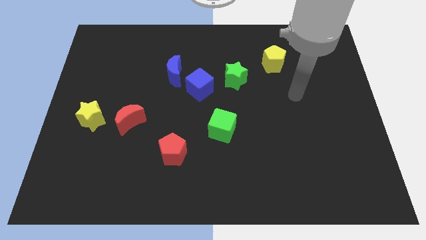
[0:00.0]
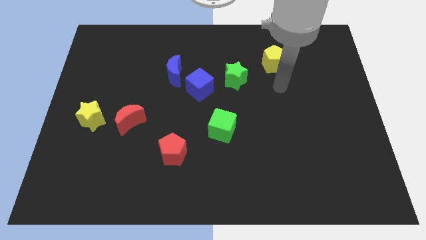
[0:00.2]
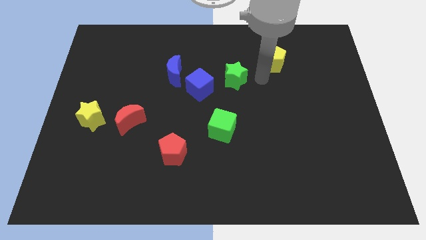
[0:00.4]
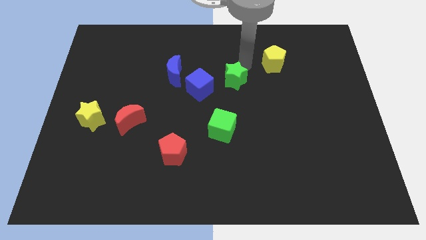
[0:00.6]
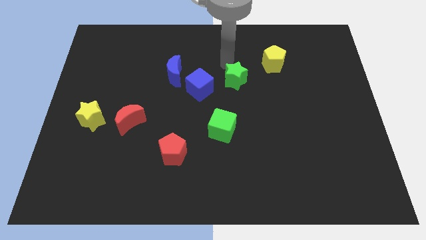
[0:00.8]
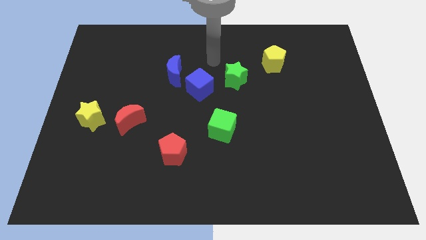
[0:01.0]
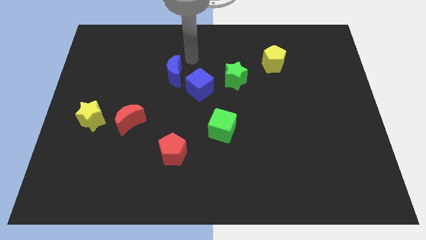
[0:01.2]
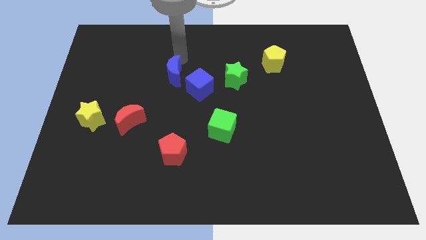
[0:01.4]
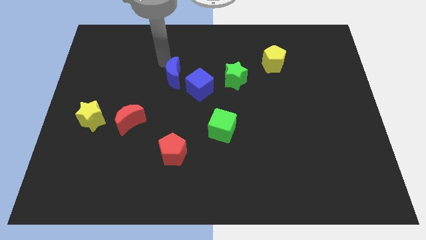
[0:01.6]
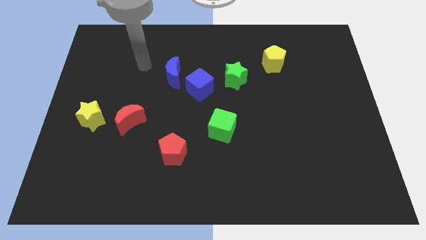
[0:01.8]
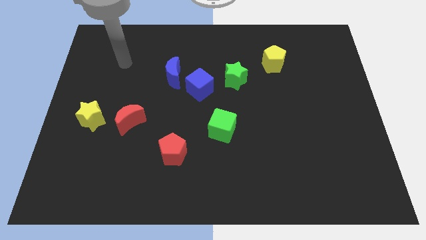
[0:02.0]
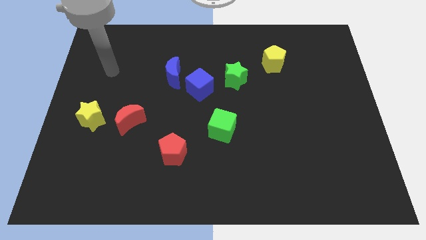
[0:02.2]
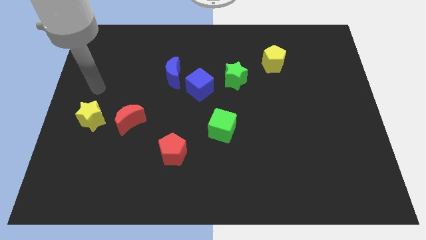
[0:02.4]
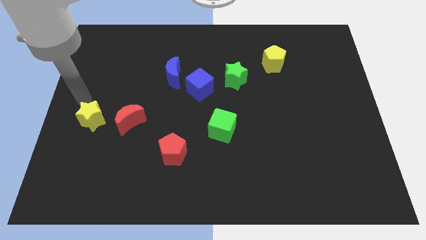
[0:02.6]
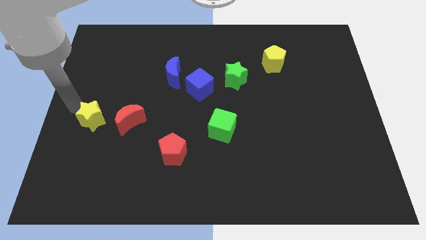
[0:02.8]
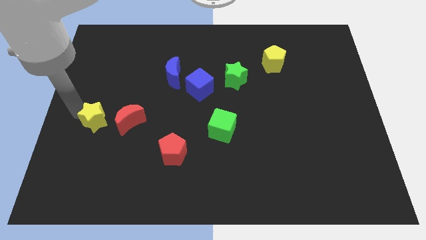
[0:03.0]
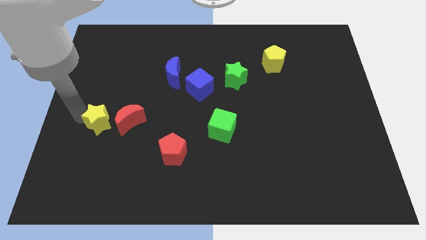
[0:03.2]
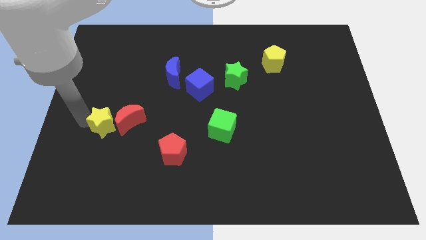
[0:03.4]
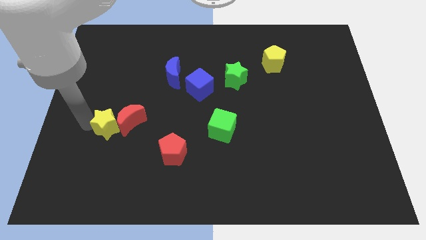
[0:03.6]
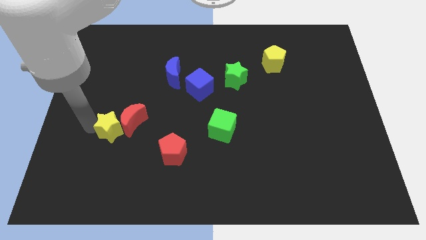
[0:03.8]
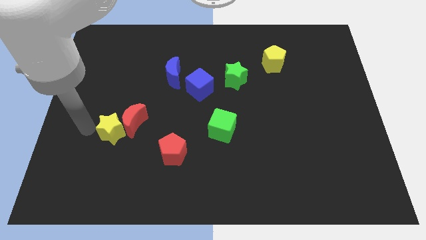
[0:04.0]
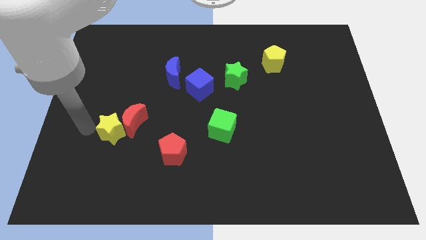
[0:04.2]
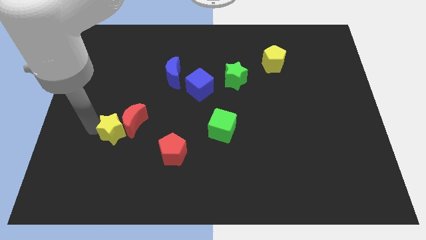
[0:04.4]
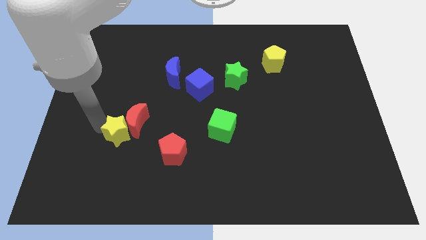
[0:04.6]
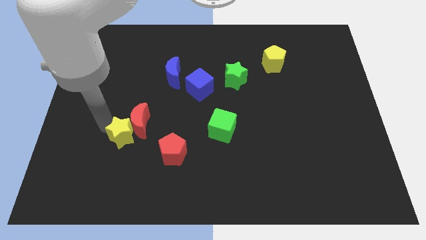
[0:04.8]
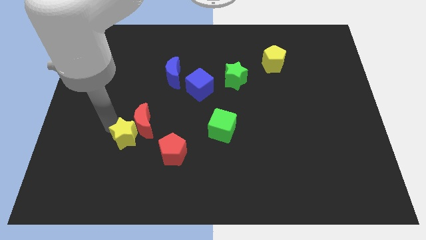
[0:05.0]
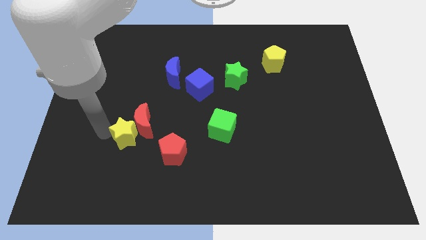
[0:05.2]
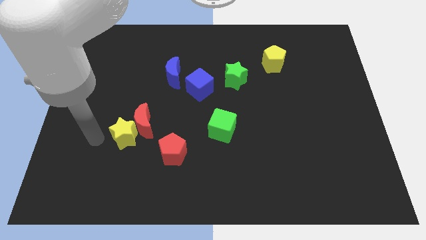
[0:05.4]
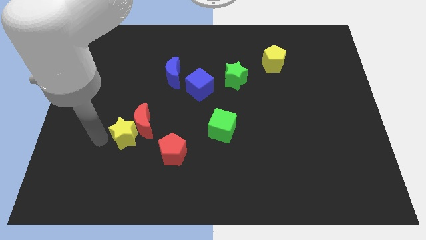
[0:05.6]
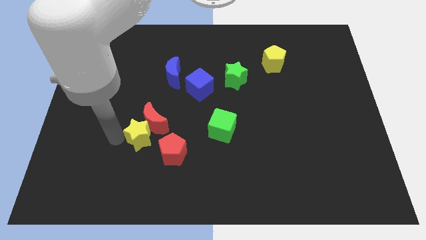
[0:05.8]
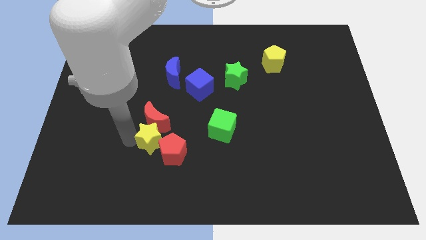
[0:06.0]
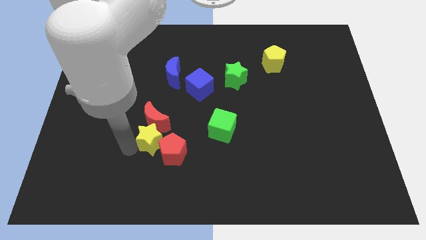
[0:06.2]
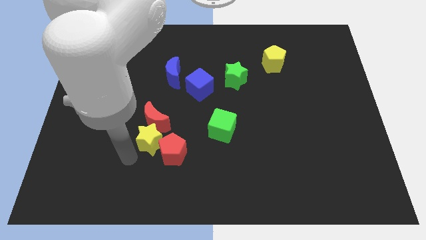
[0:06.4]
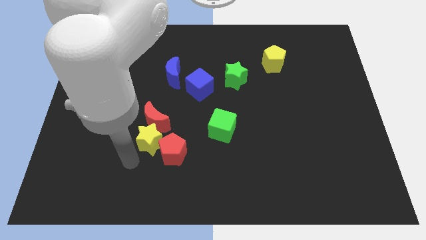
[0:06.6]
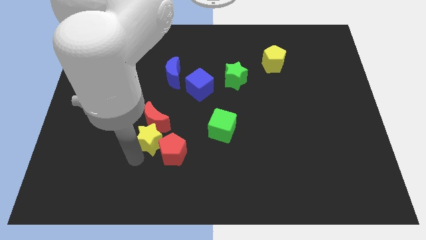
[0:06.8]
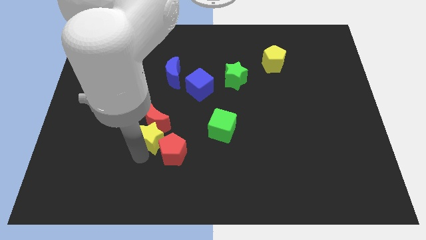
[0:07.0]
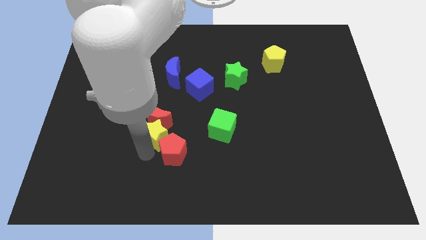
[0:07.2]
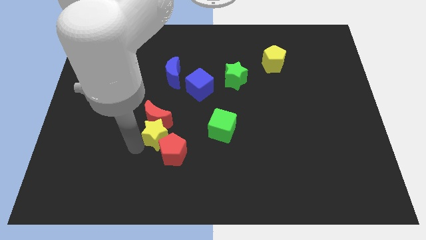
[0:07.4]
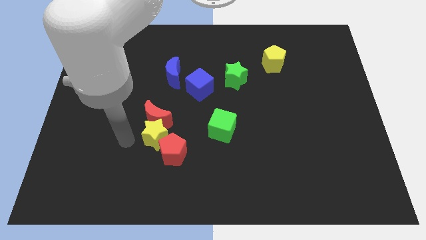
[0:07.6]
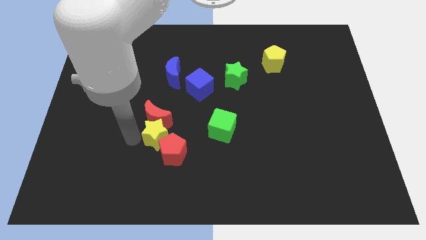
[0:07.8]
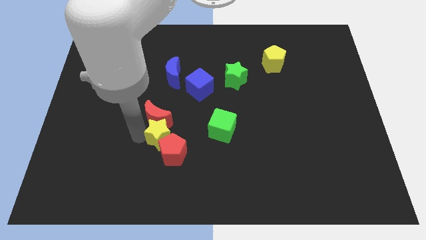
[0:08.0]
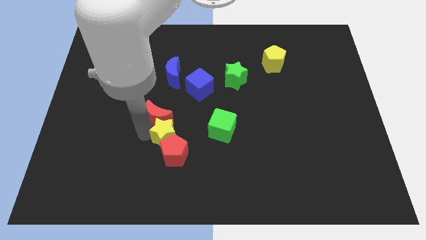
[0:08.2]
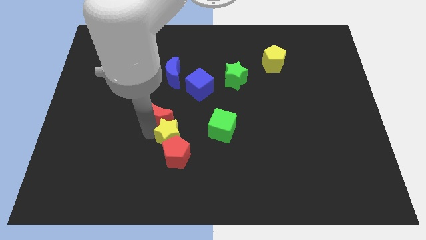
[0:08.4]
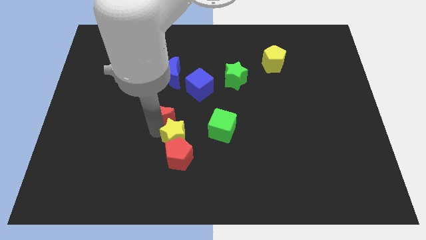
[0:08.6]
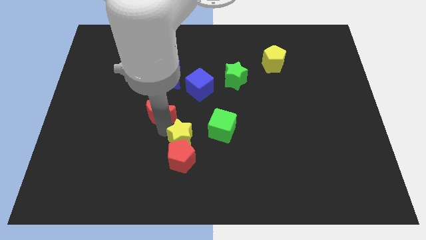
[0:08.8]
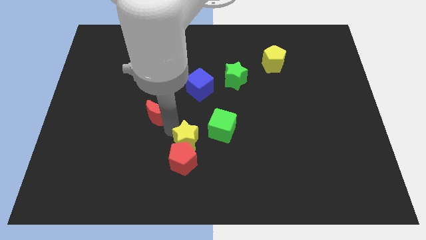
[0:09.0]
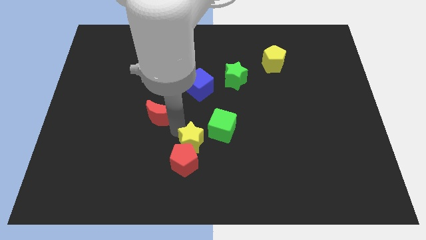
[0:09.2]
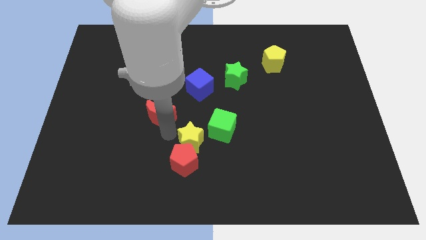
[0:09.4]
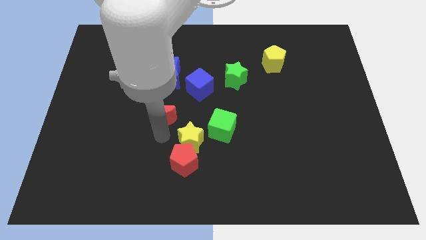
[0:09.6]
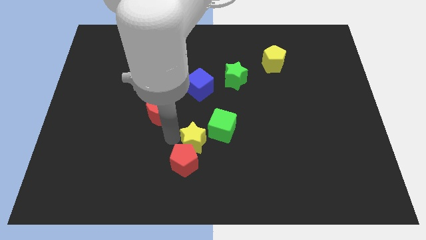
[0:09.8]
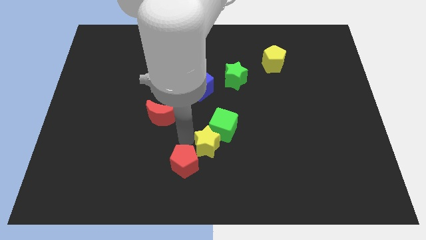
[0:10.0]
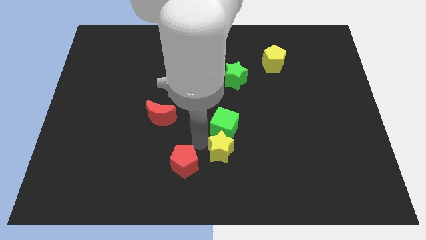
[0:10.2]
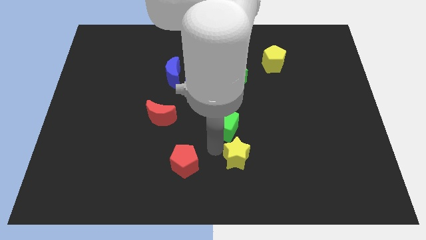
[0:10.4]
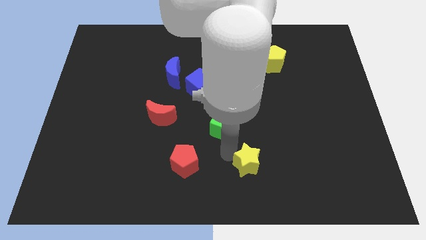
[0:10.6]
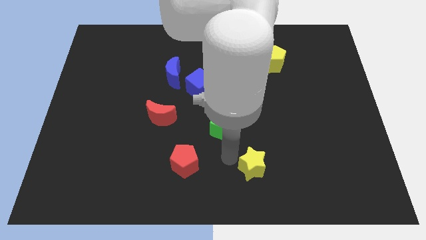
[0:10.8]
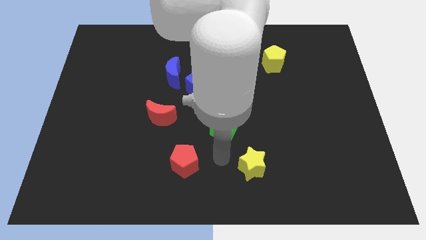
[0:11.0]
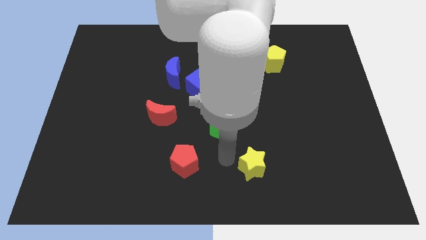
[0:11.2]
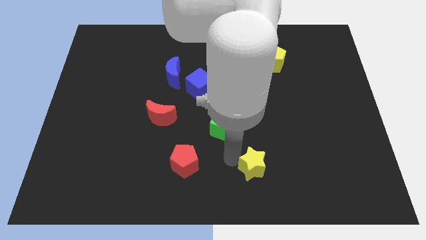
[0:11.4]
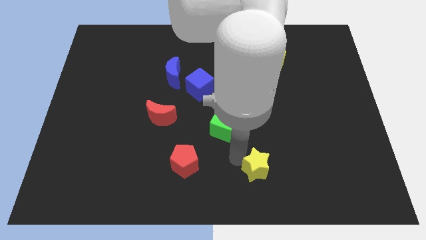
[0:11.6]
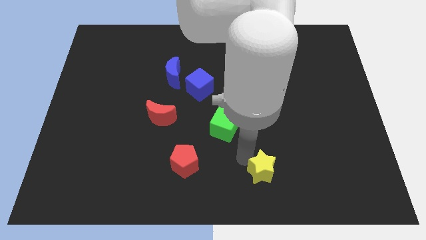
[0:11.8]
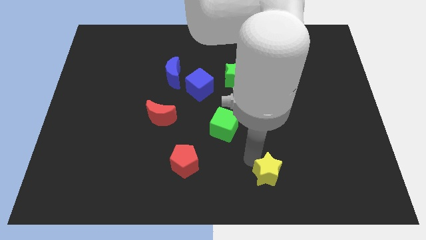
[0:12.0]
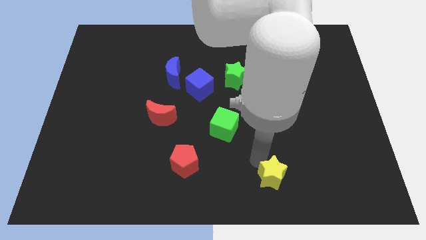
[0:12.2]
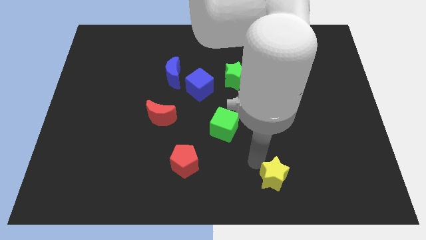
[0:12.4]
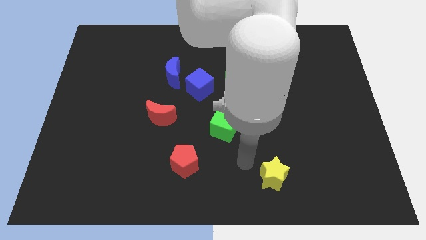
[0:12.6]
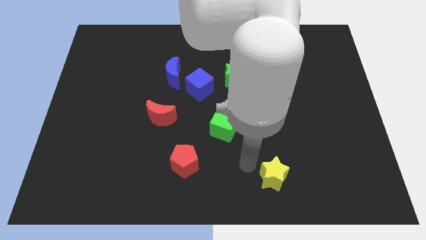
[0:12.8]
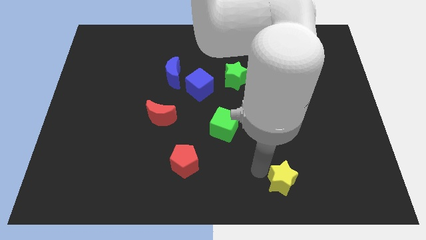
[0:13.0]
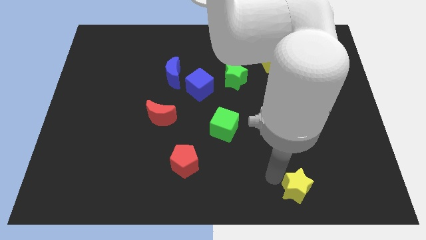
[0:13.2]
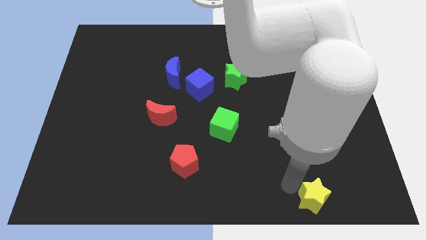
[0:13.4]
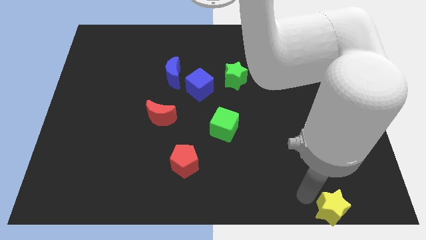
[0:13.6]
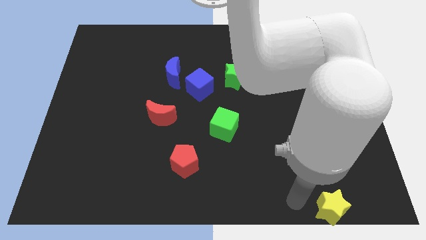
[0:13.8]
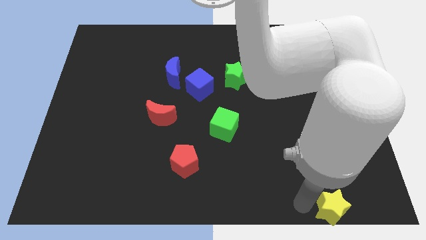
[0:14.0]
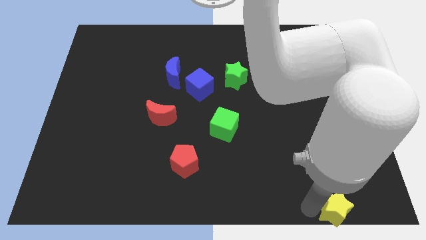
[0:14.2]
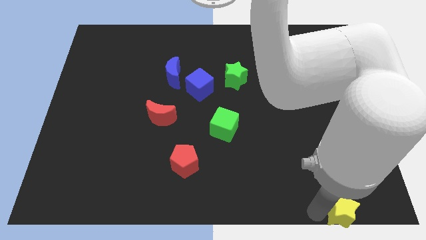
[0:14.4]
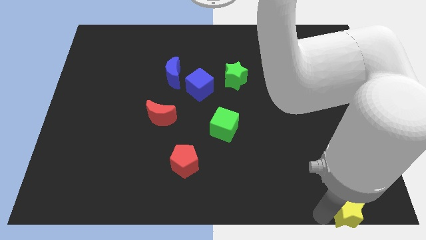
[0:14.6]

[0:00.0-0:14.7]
put the yellow star to the bottom right of the board
